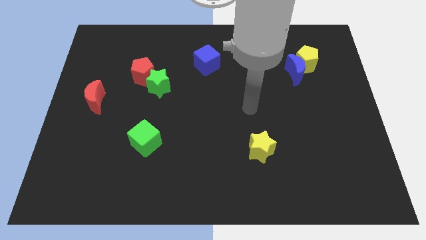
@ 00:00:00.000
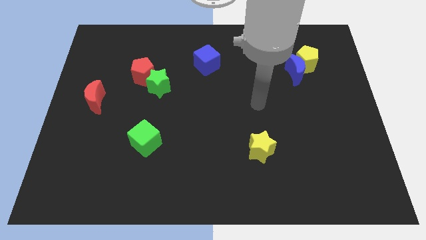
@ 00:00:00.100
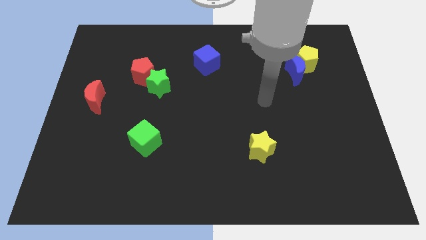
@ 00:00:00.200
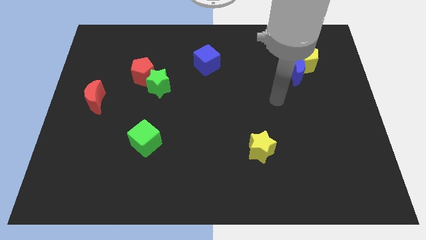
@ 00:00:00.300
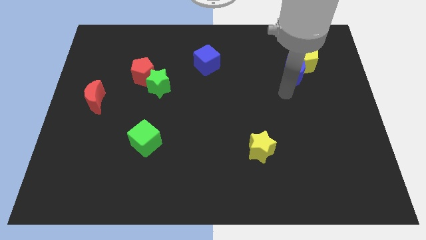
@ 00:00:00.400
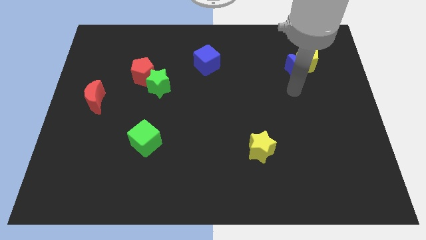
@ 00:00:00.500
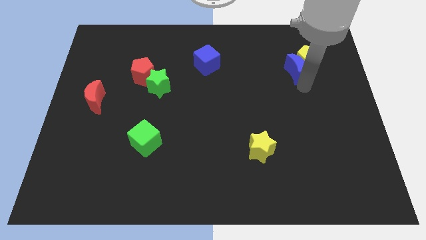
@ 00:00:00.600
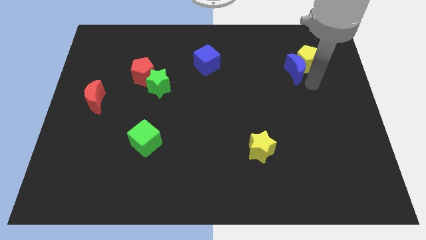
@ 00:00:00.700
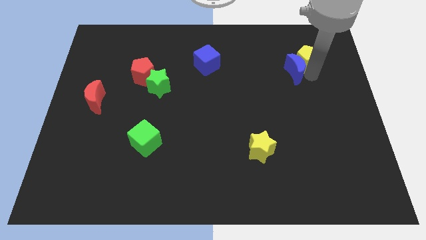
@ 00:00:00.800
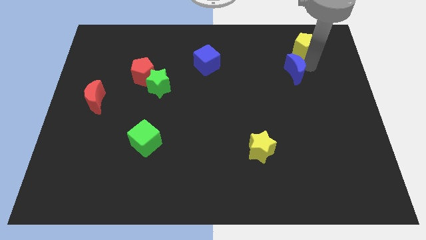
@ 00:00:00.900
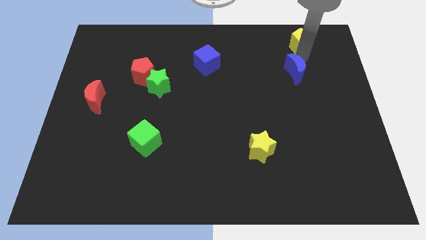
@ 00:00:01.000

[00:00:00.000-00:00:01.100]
move the blue moon away from the yellow pentagon

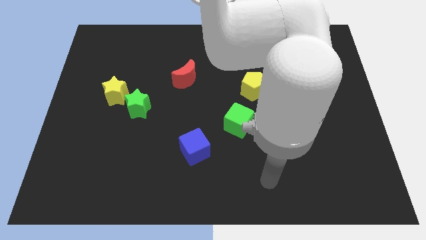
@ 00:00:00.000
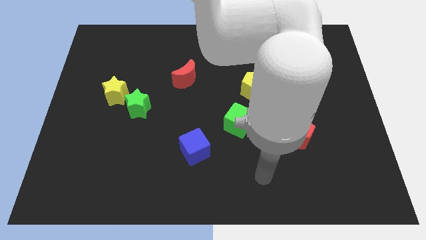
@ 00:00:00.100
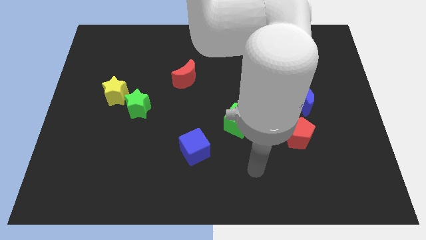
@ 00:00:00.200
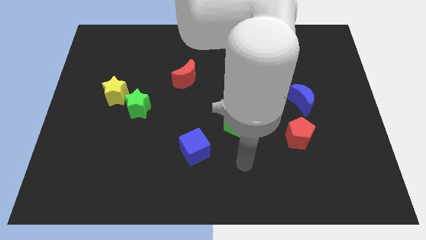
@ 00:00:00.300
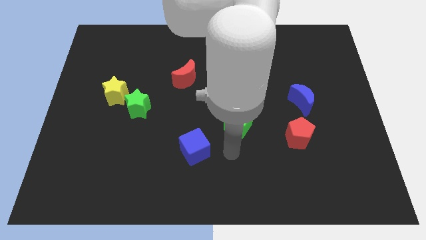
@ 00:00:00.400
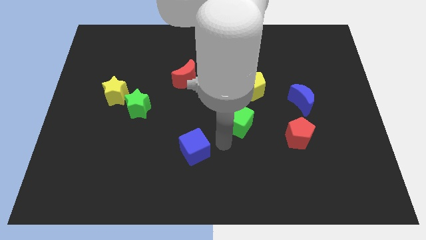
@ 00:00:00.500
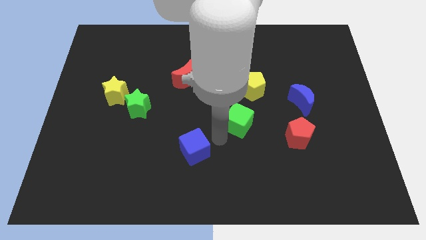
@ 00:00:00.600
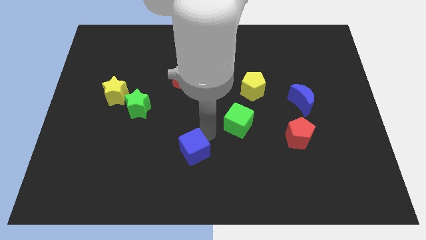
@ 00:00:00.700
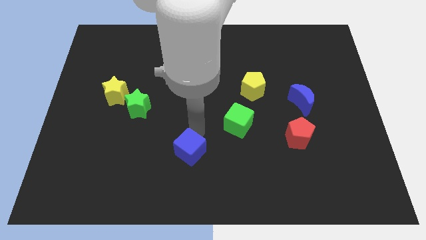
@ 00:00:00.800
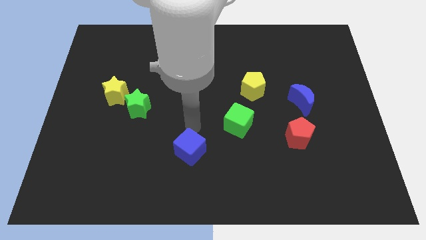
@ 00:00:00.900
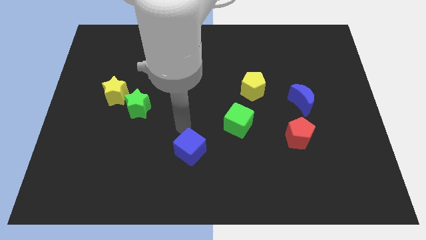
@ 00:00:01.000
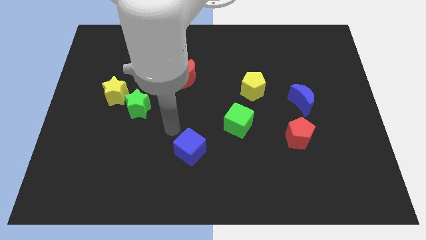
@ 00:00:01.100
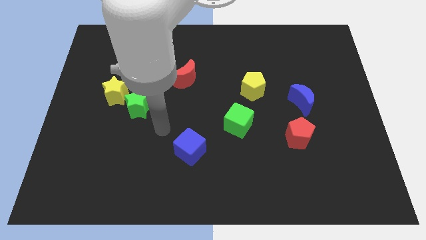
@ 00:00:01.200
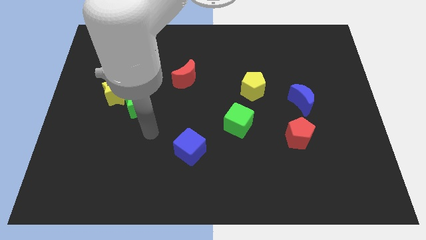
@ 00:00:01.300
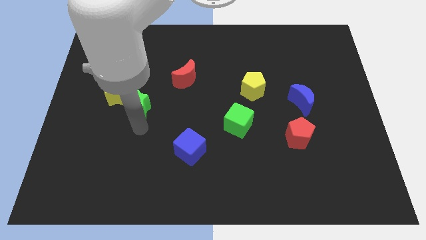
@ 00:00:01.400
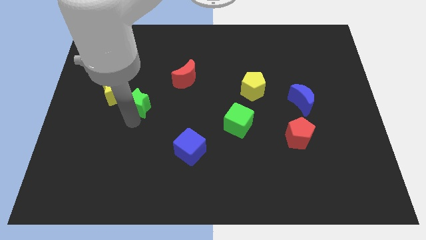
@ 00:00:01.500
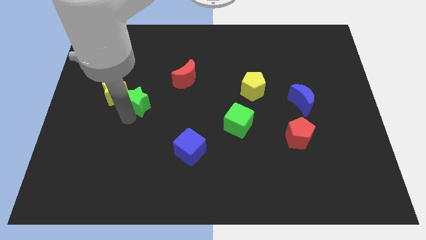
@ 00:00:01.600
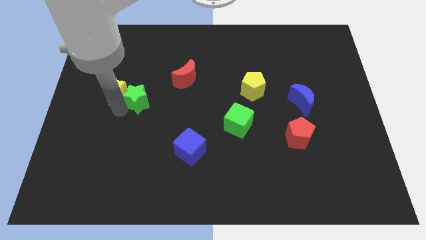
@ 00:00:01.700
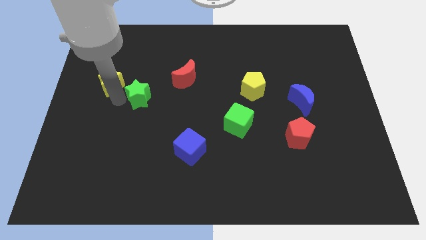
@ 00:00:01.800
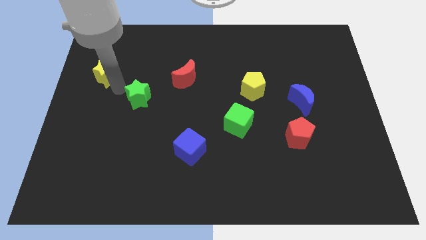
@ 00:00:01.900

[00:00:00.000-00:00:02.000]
move the green star away from the yellow star

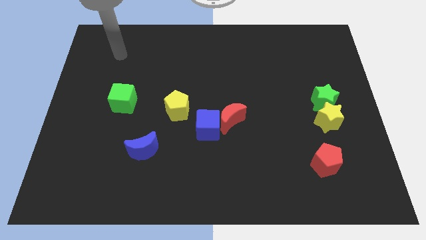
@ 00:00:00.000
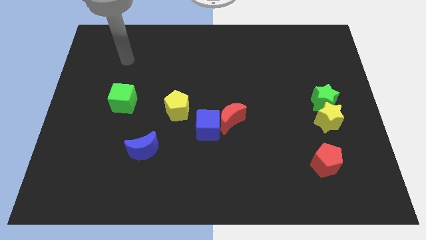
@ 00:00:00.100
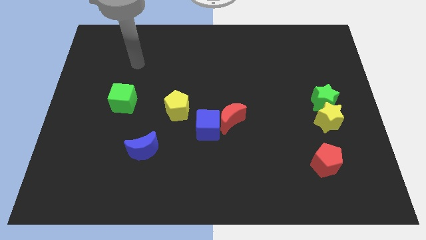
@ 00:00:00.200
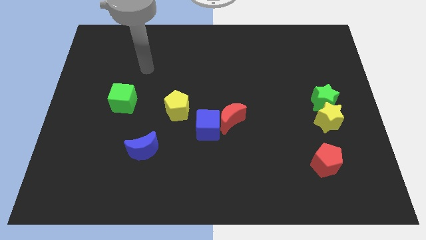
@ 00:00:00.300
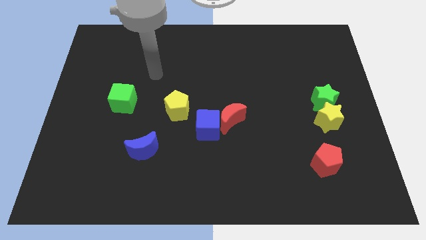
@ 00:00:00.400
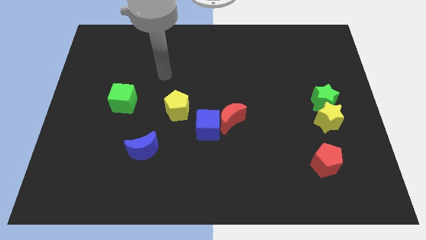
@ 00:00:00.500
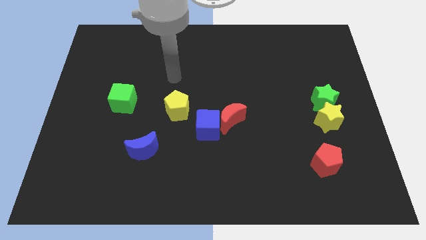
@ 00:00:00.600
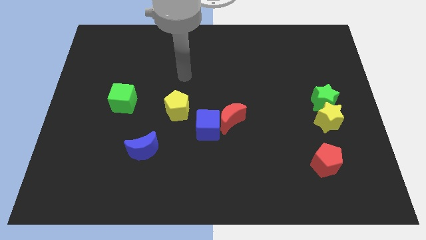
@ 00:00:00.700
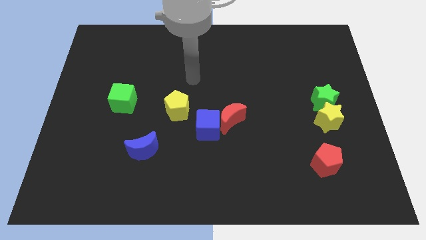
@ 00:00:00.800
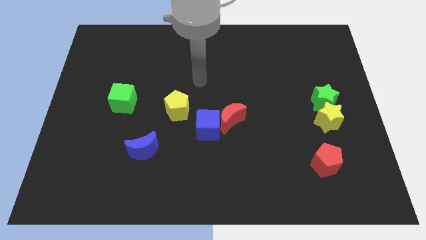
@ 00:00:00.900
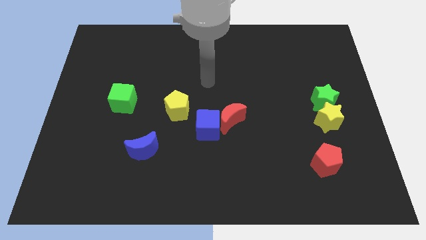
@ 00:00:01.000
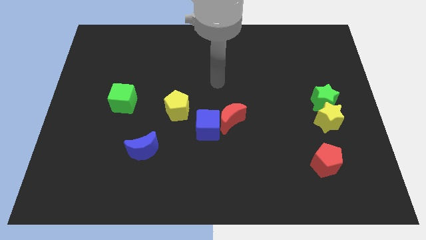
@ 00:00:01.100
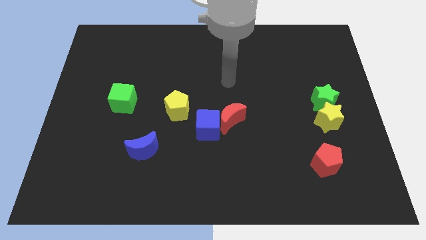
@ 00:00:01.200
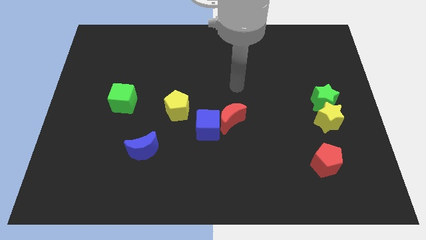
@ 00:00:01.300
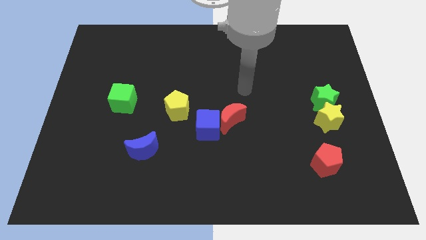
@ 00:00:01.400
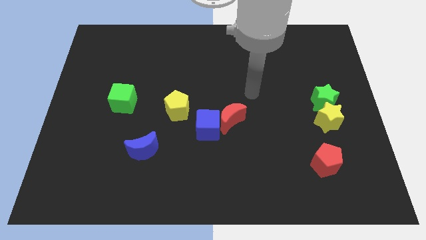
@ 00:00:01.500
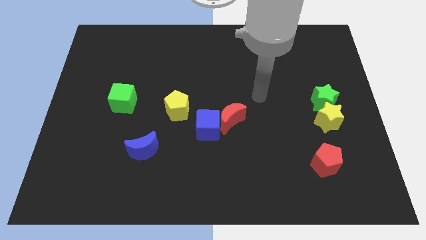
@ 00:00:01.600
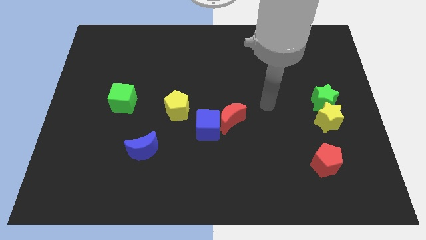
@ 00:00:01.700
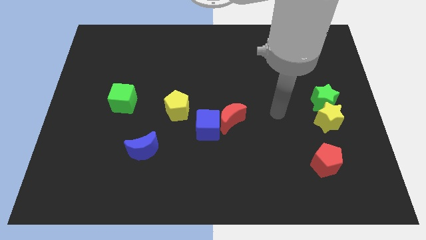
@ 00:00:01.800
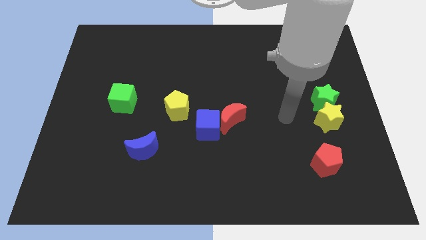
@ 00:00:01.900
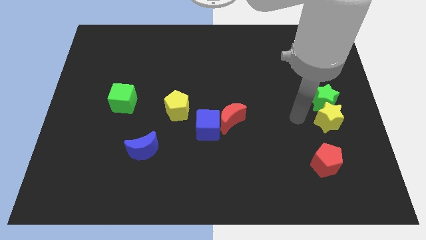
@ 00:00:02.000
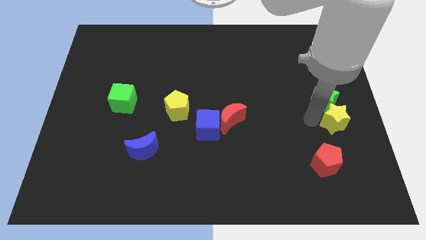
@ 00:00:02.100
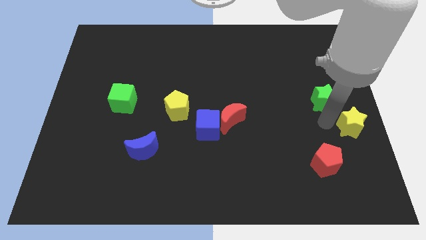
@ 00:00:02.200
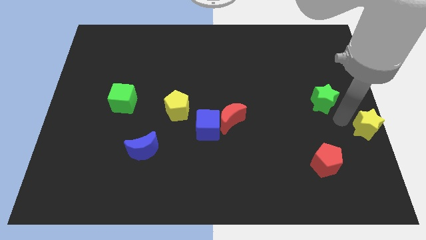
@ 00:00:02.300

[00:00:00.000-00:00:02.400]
pull the green star apart from the yellow star

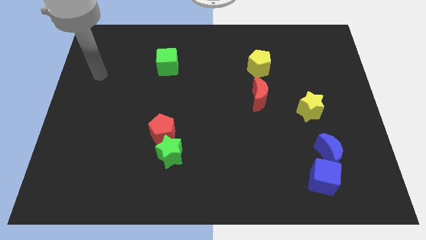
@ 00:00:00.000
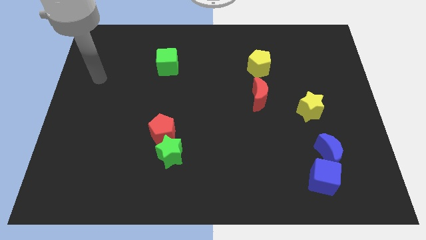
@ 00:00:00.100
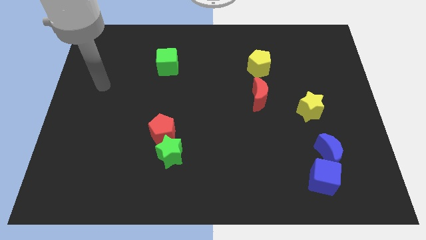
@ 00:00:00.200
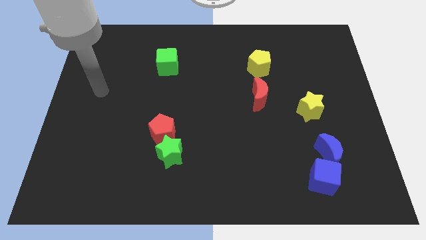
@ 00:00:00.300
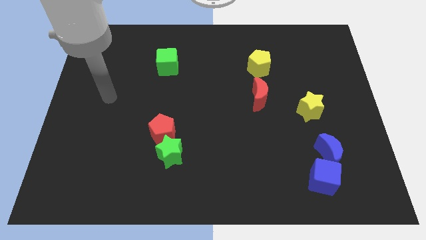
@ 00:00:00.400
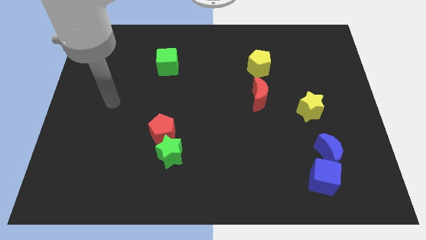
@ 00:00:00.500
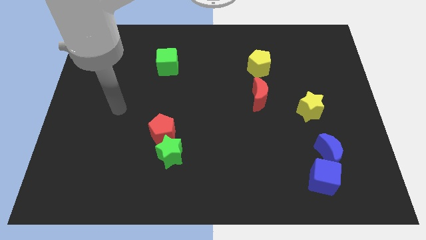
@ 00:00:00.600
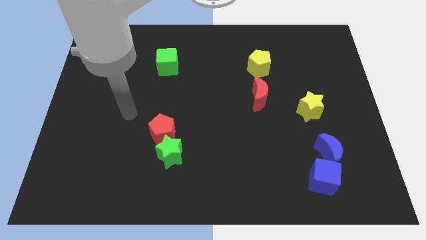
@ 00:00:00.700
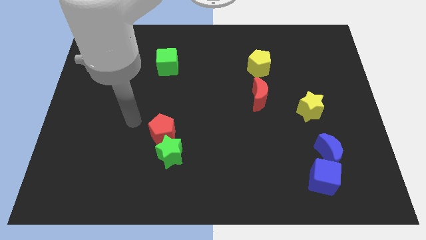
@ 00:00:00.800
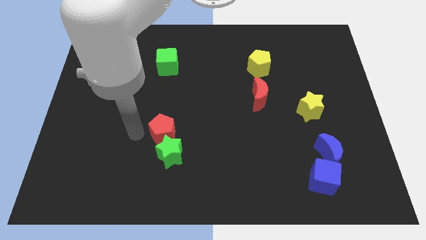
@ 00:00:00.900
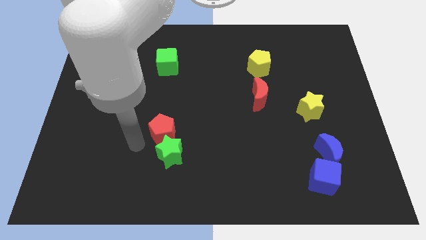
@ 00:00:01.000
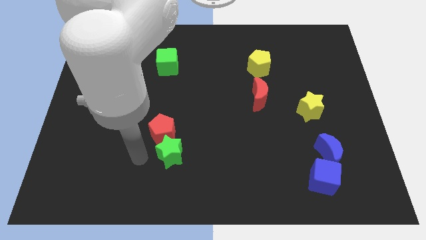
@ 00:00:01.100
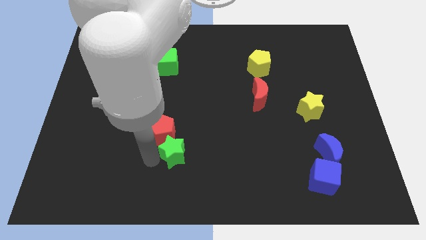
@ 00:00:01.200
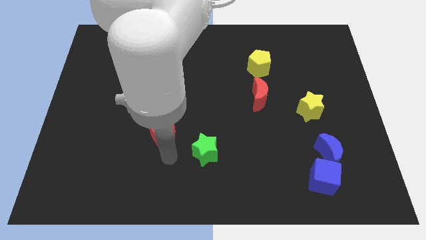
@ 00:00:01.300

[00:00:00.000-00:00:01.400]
separate the red pentagon from the green star

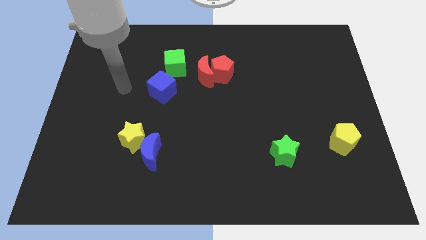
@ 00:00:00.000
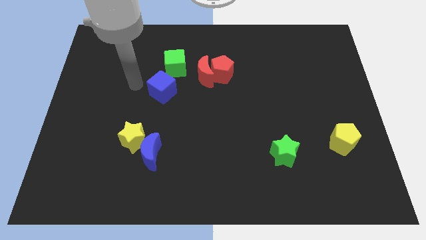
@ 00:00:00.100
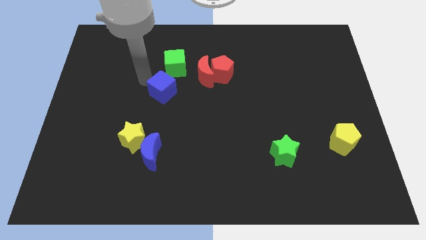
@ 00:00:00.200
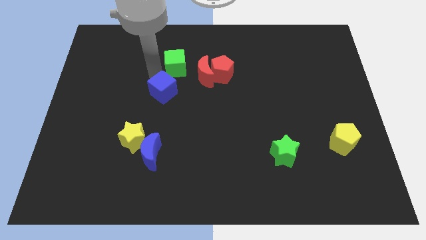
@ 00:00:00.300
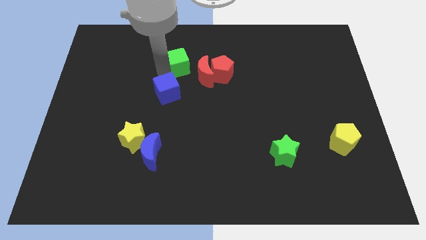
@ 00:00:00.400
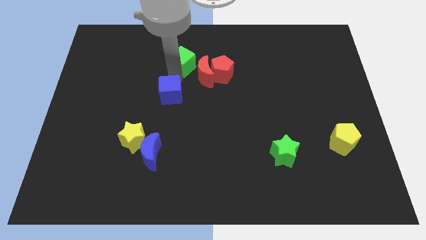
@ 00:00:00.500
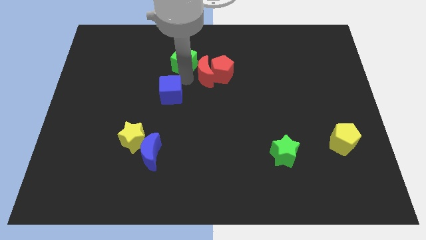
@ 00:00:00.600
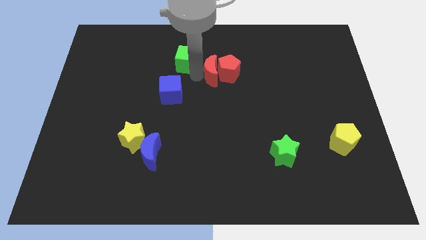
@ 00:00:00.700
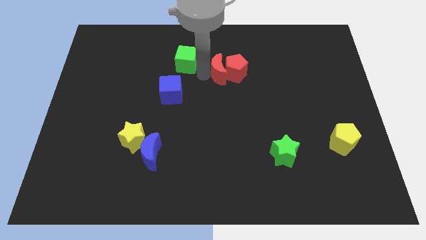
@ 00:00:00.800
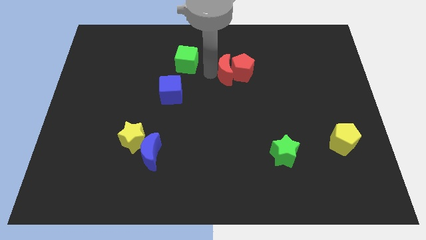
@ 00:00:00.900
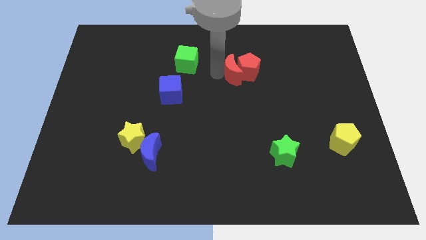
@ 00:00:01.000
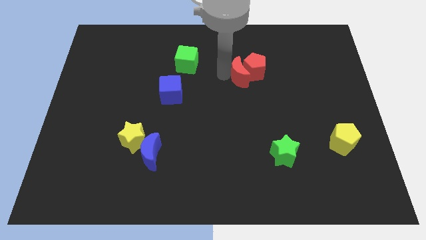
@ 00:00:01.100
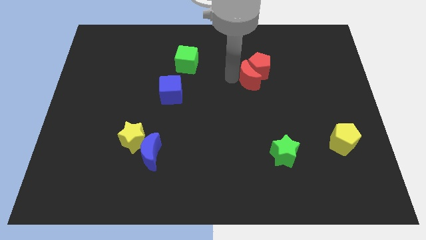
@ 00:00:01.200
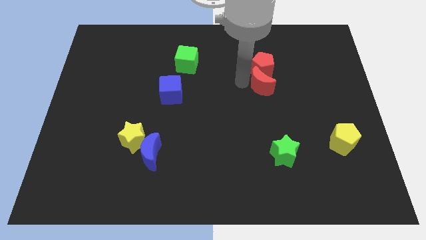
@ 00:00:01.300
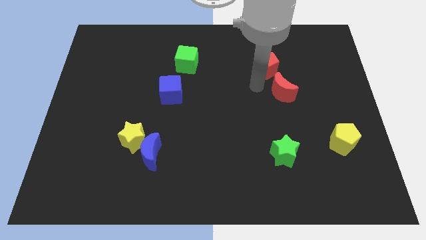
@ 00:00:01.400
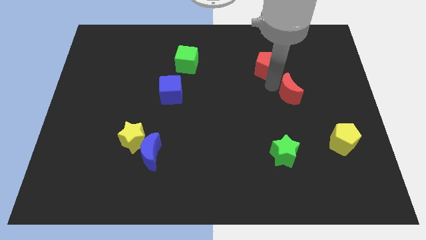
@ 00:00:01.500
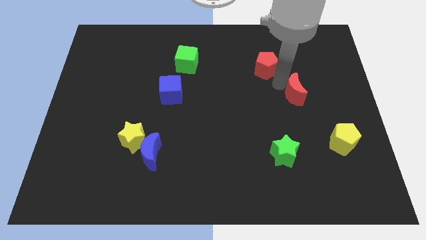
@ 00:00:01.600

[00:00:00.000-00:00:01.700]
move the red pentagon away from the red moon

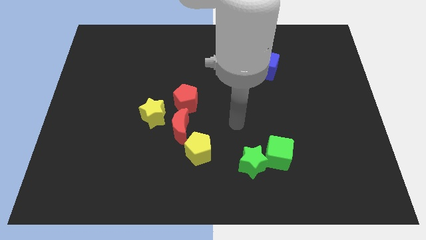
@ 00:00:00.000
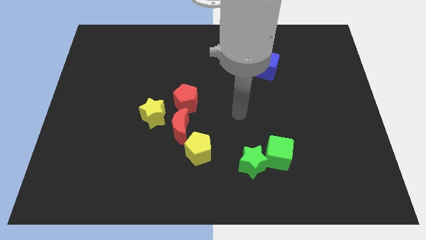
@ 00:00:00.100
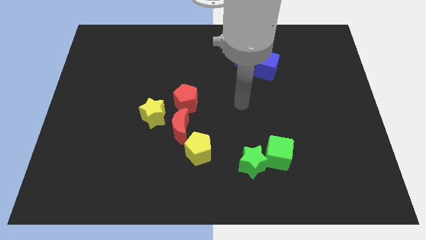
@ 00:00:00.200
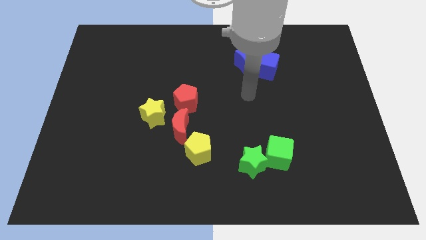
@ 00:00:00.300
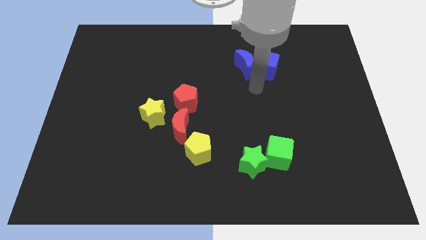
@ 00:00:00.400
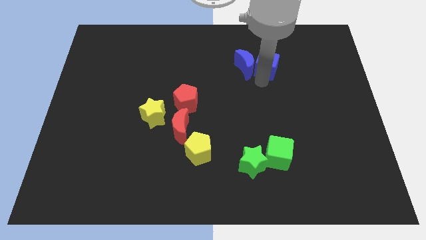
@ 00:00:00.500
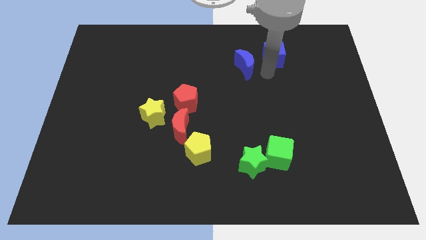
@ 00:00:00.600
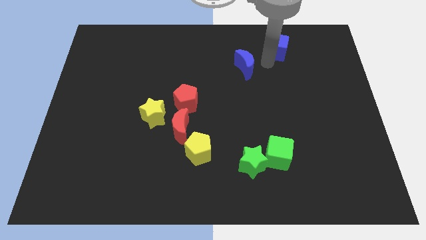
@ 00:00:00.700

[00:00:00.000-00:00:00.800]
pull the blue moon apart from the blue cube
